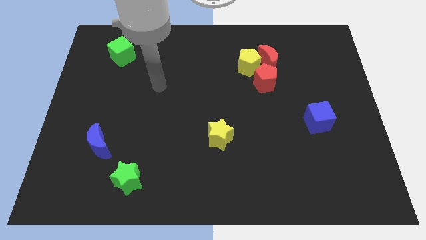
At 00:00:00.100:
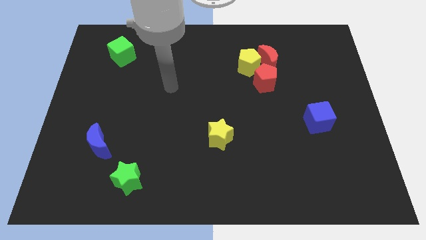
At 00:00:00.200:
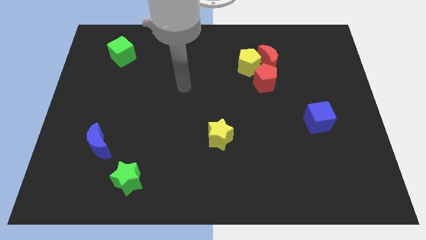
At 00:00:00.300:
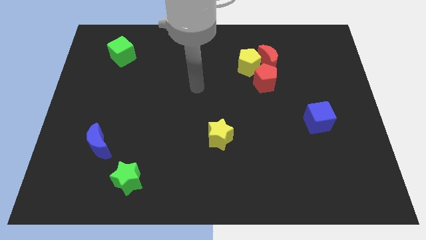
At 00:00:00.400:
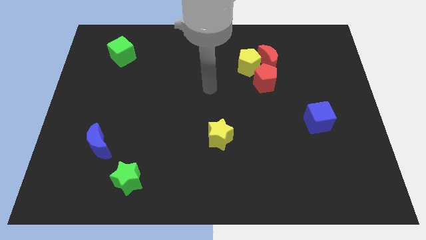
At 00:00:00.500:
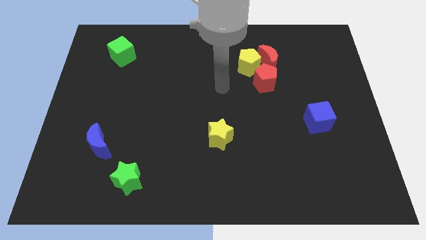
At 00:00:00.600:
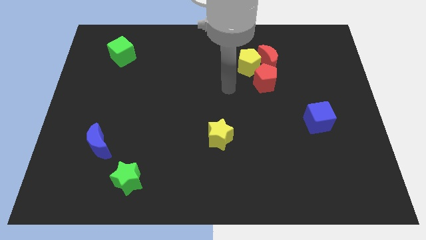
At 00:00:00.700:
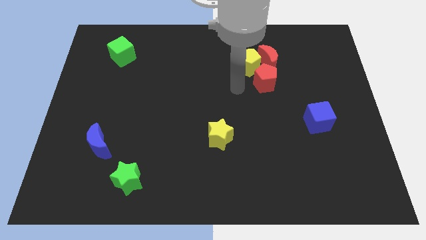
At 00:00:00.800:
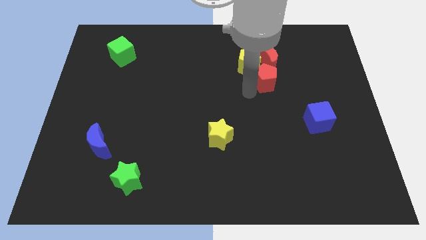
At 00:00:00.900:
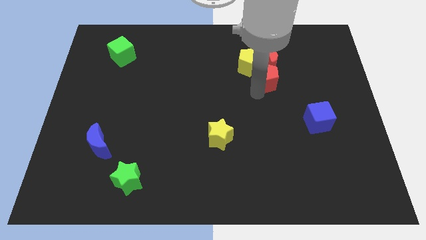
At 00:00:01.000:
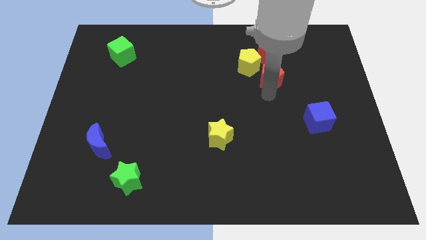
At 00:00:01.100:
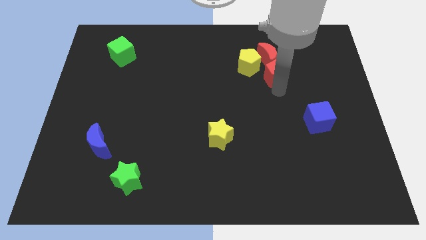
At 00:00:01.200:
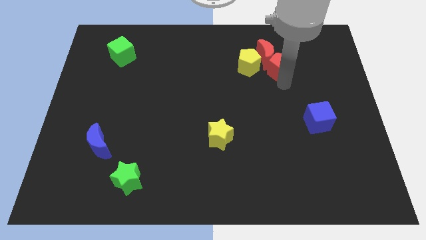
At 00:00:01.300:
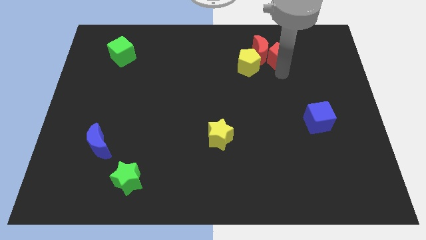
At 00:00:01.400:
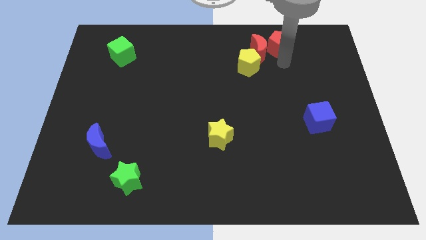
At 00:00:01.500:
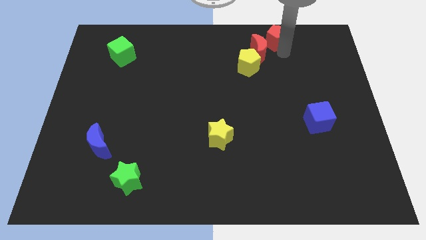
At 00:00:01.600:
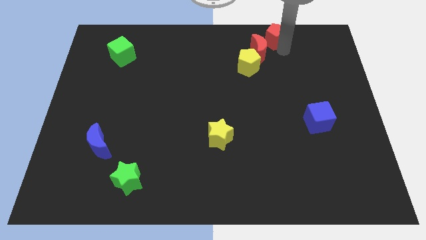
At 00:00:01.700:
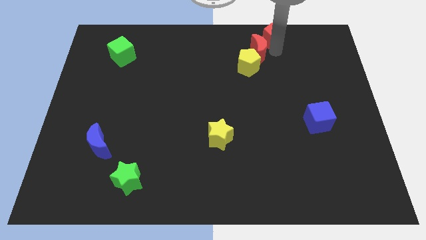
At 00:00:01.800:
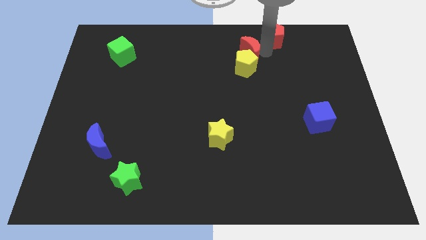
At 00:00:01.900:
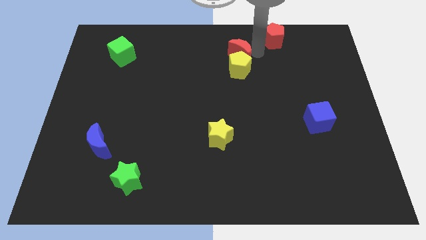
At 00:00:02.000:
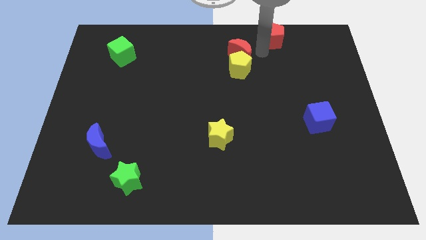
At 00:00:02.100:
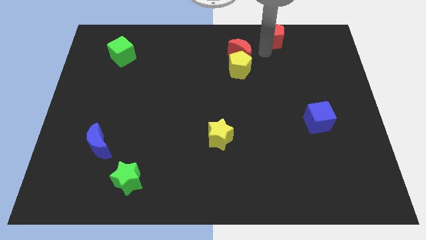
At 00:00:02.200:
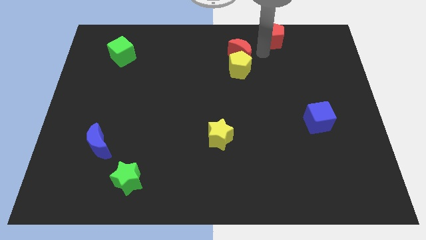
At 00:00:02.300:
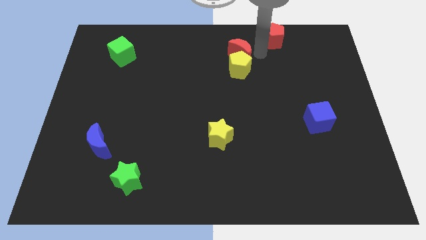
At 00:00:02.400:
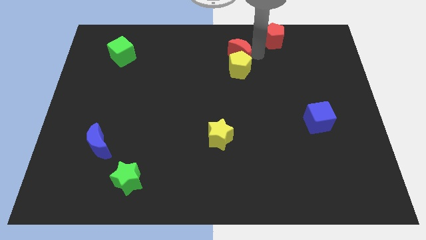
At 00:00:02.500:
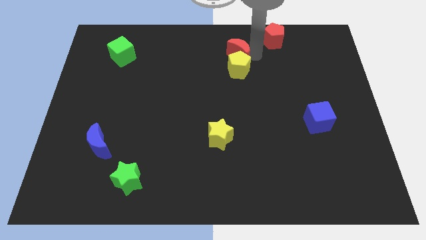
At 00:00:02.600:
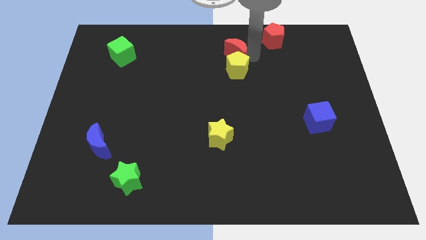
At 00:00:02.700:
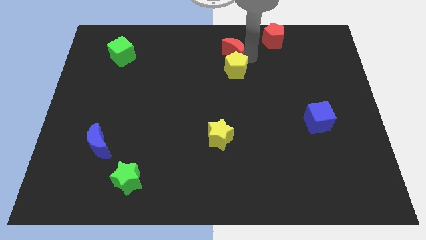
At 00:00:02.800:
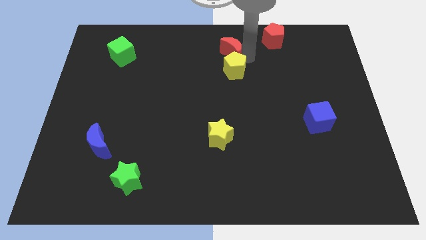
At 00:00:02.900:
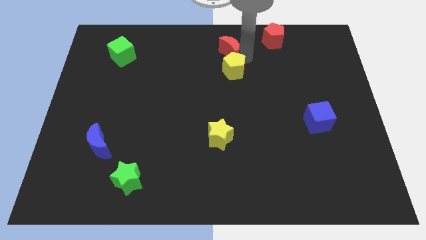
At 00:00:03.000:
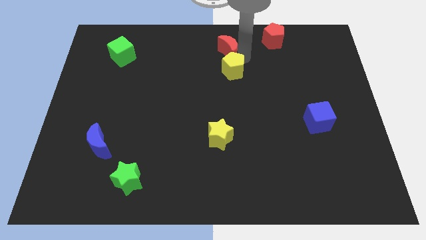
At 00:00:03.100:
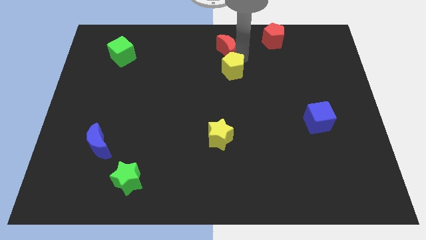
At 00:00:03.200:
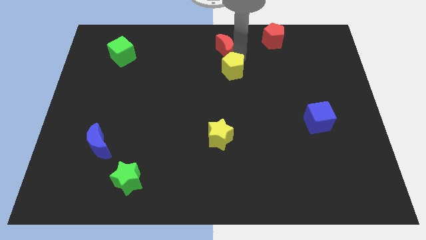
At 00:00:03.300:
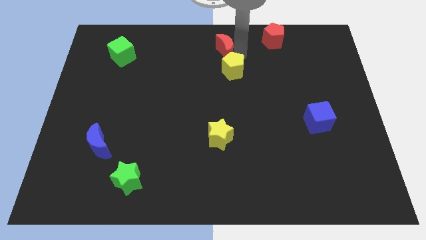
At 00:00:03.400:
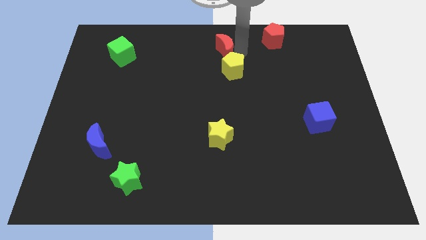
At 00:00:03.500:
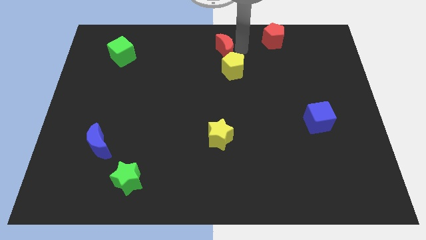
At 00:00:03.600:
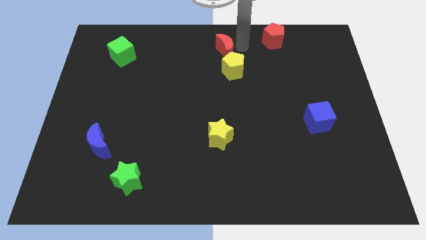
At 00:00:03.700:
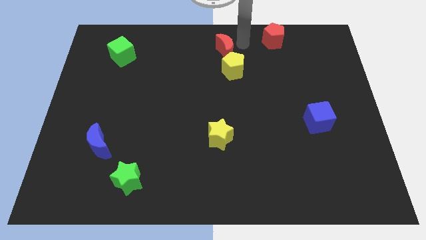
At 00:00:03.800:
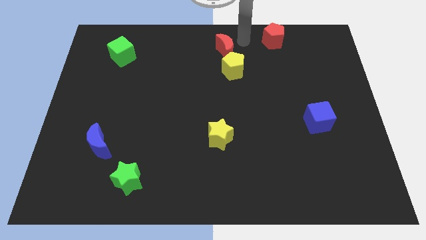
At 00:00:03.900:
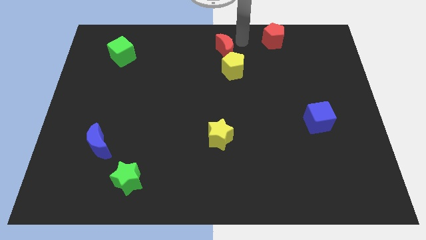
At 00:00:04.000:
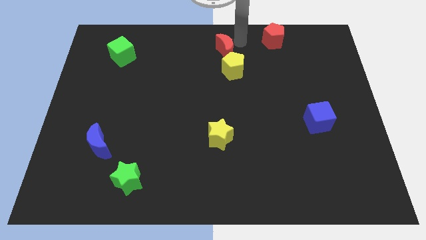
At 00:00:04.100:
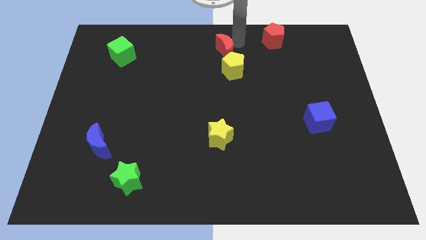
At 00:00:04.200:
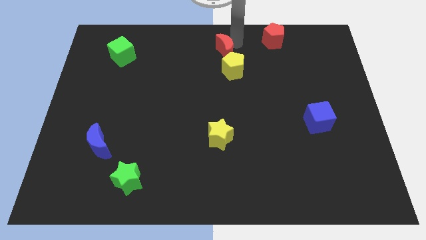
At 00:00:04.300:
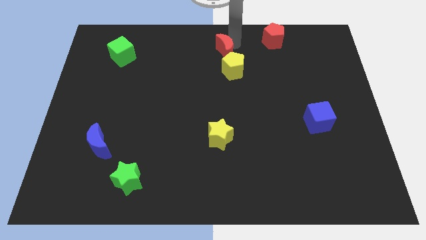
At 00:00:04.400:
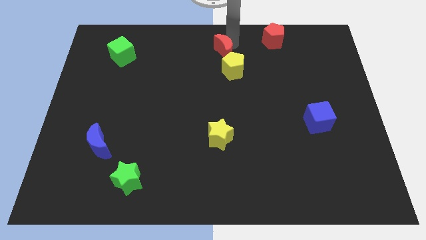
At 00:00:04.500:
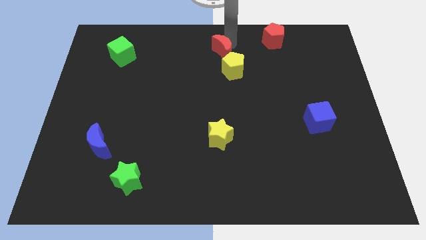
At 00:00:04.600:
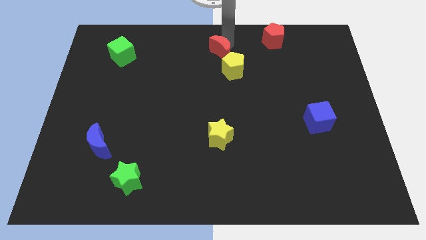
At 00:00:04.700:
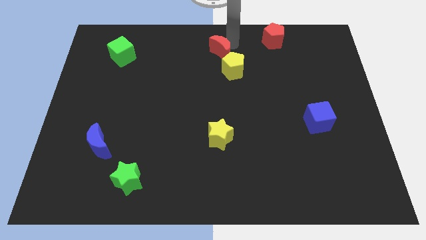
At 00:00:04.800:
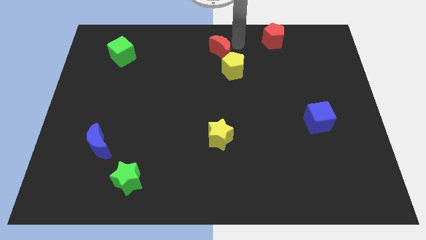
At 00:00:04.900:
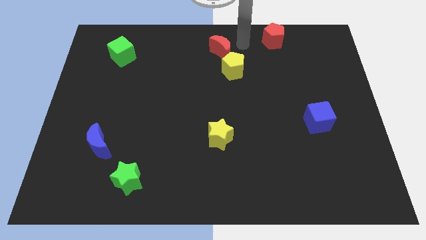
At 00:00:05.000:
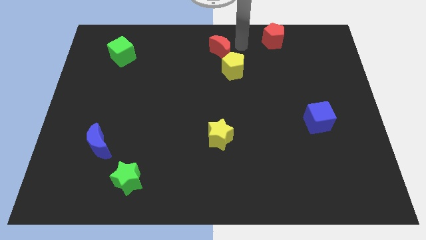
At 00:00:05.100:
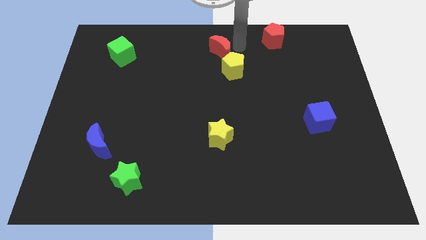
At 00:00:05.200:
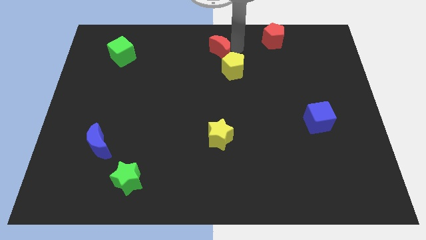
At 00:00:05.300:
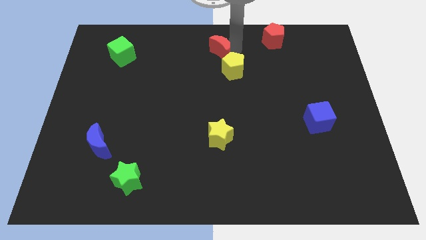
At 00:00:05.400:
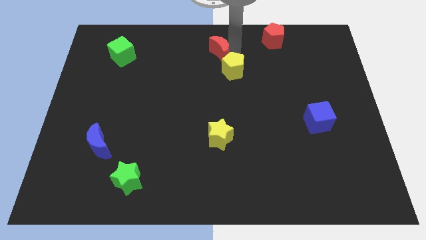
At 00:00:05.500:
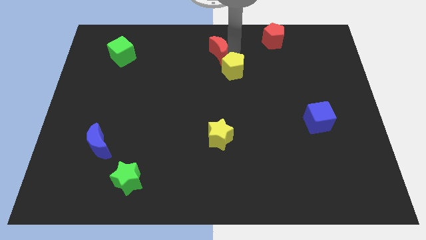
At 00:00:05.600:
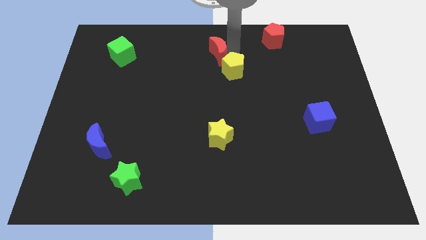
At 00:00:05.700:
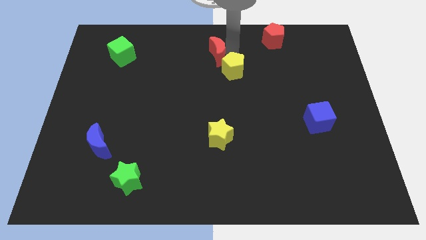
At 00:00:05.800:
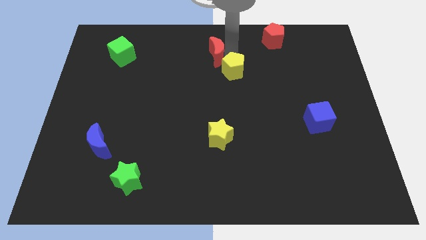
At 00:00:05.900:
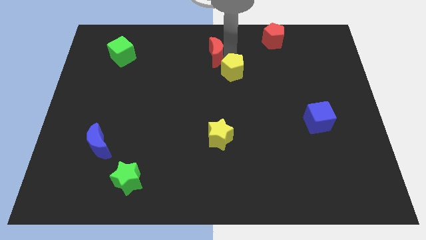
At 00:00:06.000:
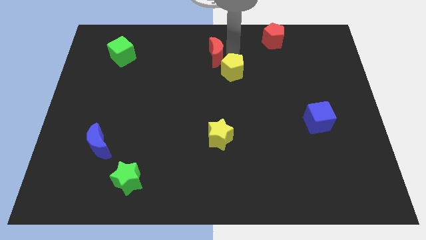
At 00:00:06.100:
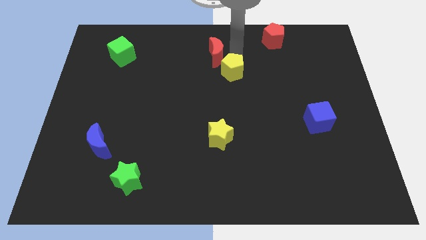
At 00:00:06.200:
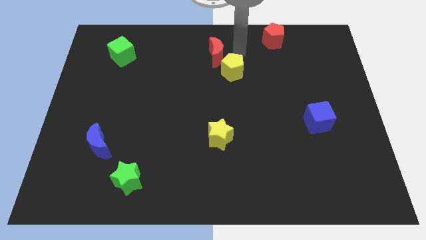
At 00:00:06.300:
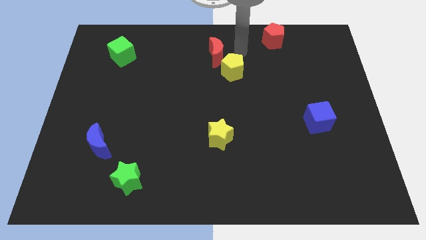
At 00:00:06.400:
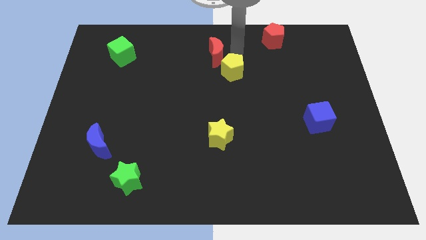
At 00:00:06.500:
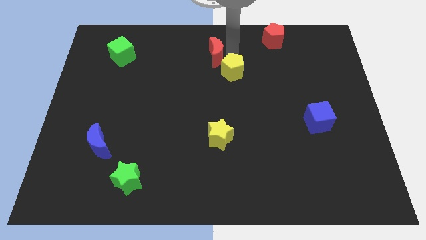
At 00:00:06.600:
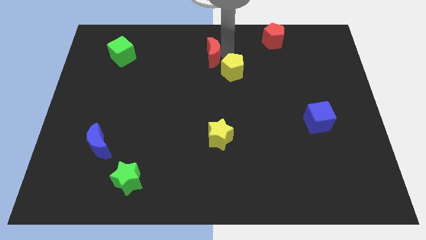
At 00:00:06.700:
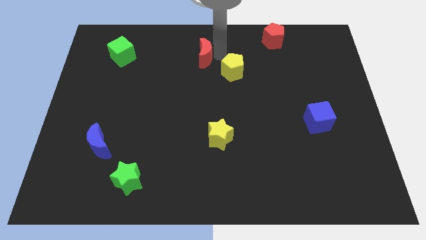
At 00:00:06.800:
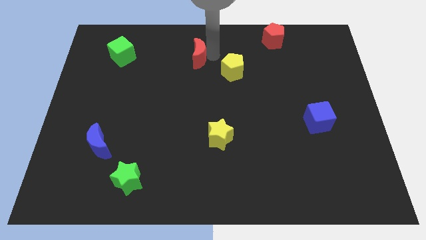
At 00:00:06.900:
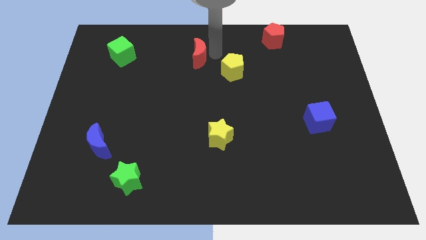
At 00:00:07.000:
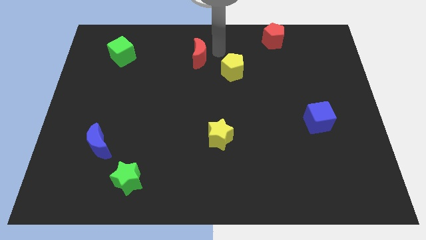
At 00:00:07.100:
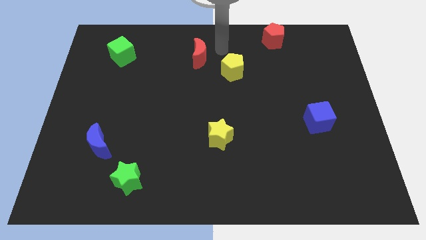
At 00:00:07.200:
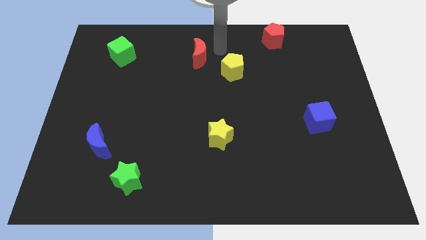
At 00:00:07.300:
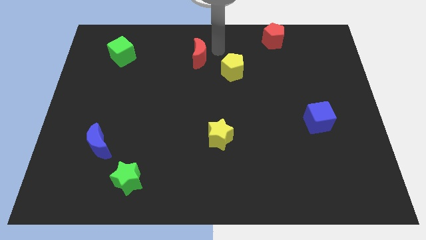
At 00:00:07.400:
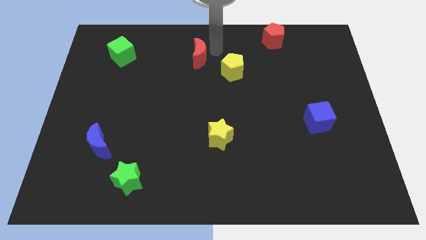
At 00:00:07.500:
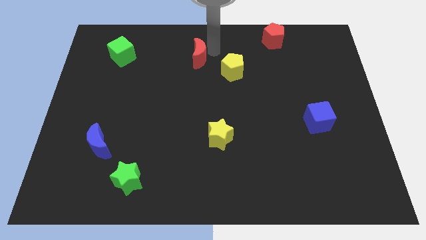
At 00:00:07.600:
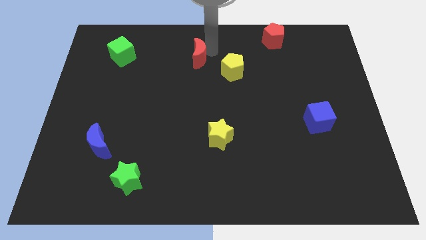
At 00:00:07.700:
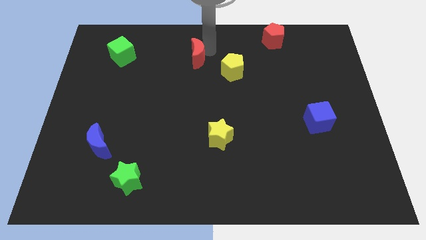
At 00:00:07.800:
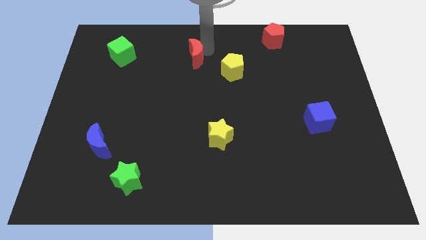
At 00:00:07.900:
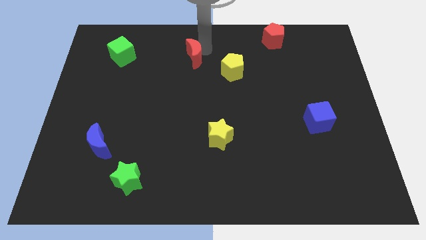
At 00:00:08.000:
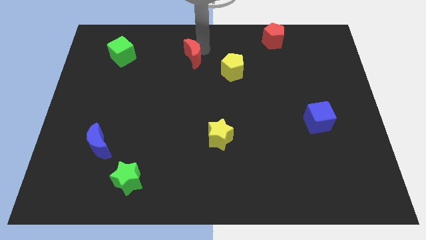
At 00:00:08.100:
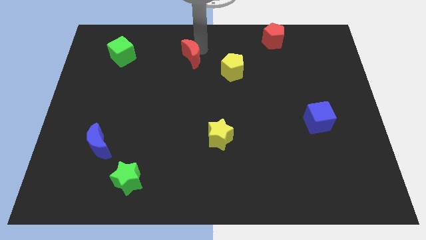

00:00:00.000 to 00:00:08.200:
move the red moon to the left
